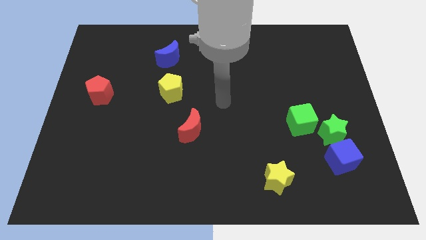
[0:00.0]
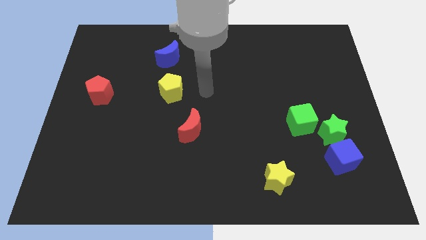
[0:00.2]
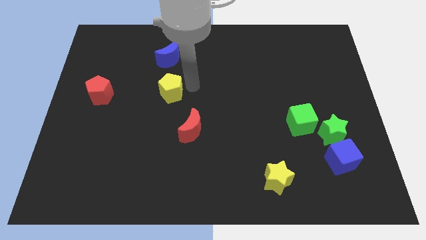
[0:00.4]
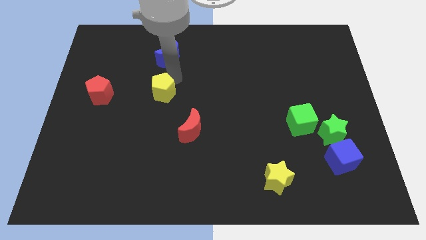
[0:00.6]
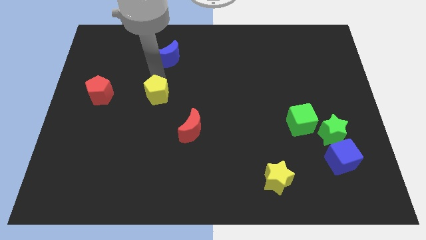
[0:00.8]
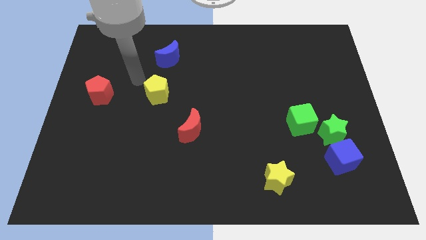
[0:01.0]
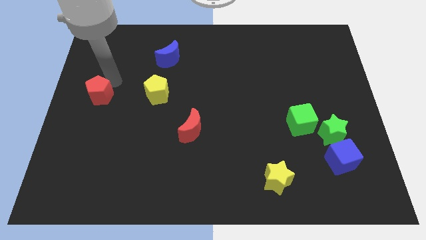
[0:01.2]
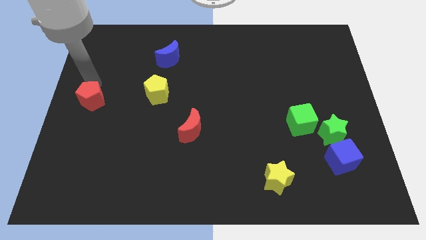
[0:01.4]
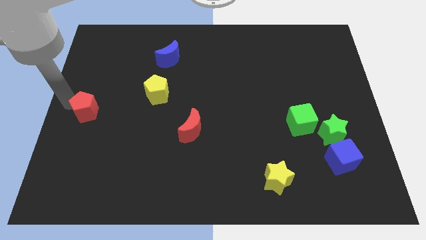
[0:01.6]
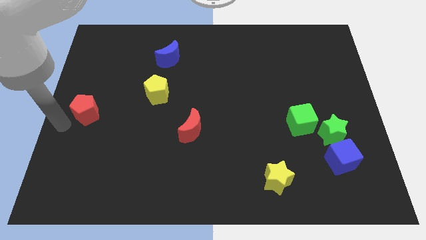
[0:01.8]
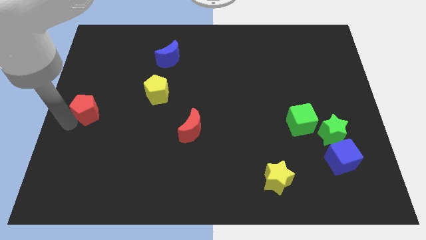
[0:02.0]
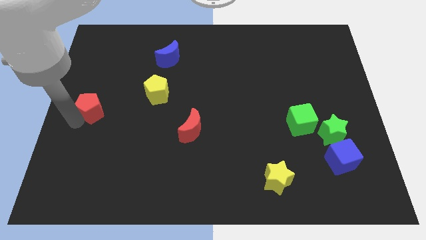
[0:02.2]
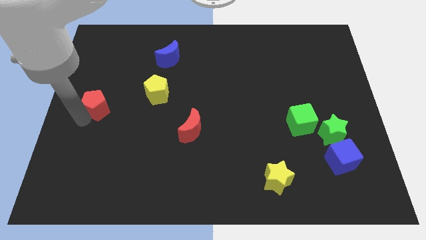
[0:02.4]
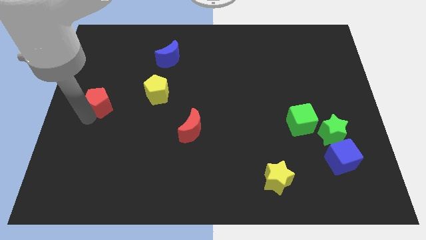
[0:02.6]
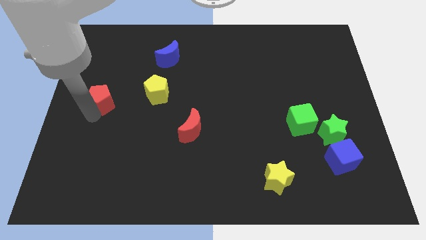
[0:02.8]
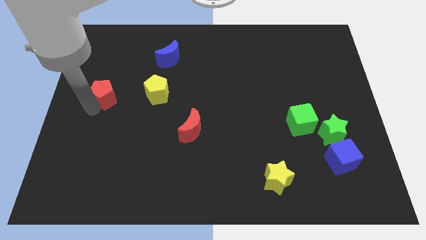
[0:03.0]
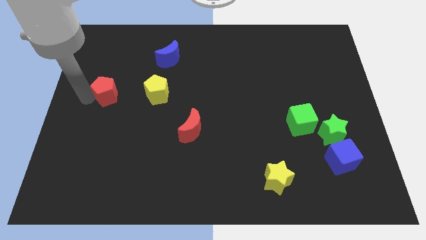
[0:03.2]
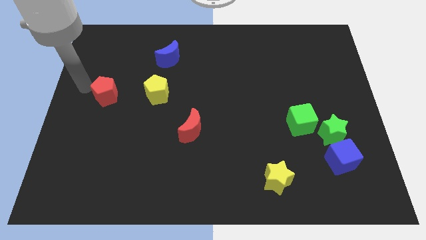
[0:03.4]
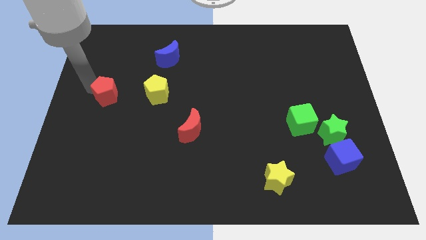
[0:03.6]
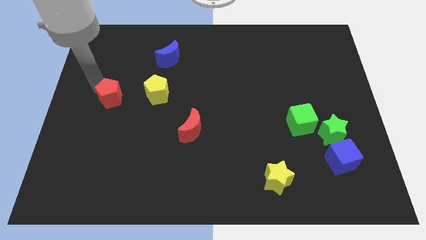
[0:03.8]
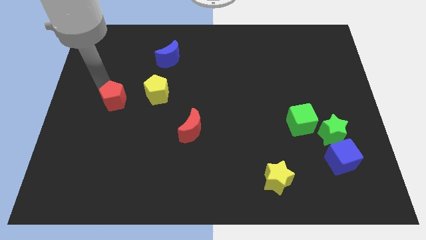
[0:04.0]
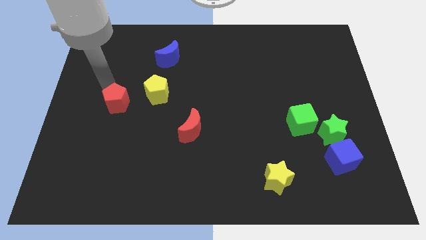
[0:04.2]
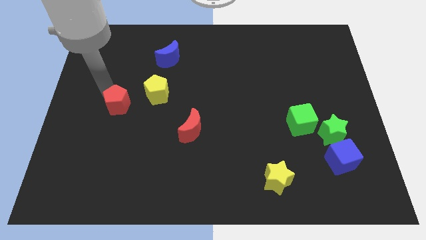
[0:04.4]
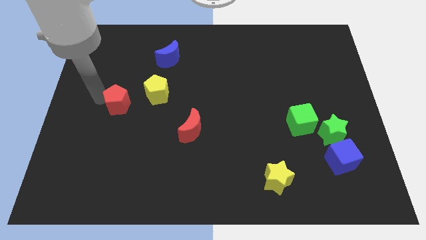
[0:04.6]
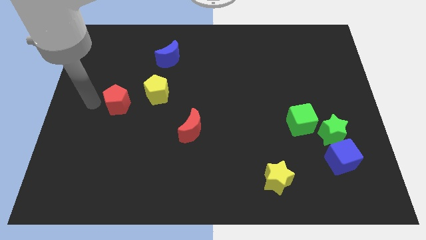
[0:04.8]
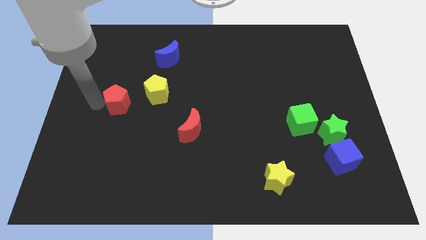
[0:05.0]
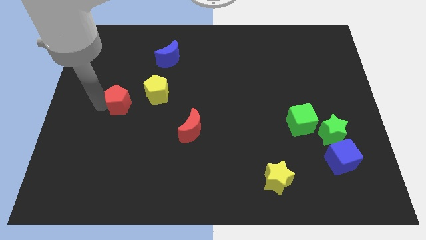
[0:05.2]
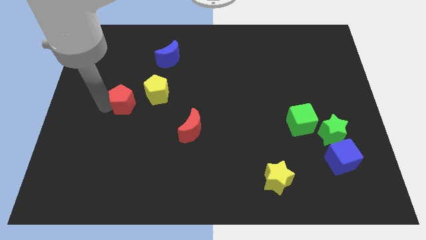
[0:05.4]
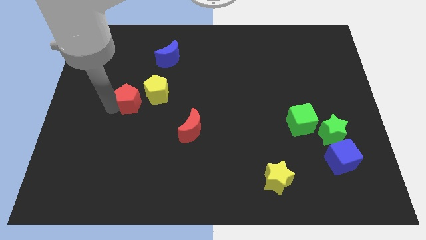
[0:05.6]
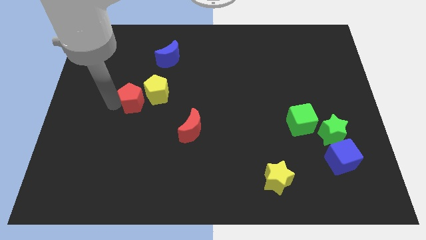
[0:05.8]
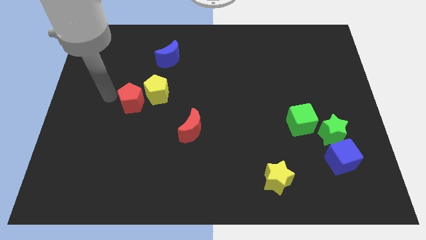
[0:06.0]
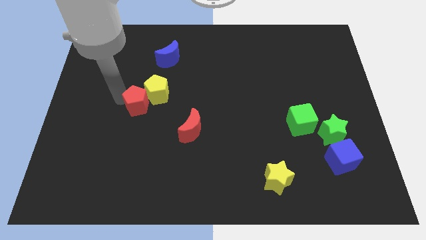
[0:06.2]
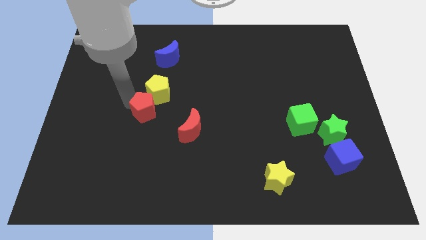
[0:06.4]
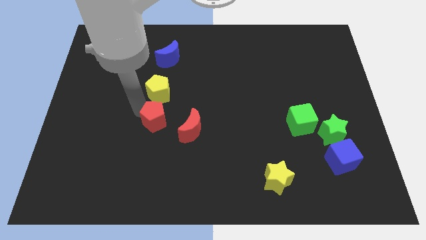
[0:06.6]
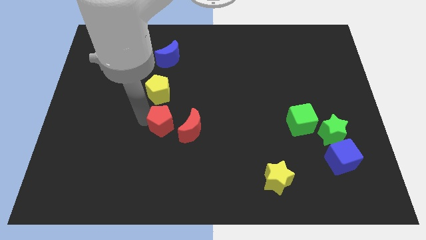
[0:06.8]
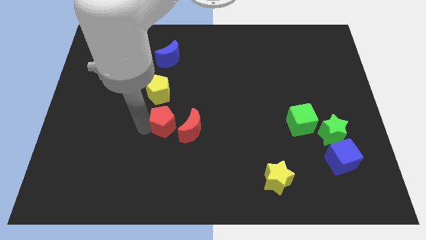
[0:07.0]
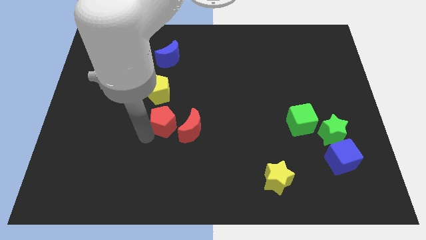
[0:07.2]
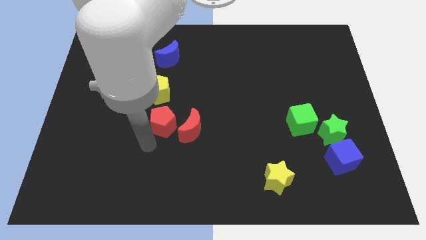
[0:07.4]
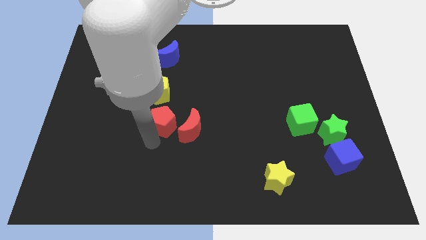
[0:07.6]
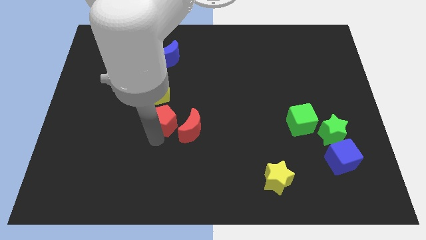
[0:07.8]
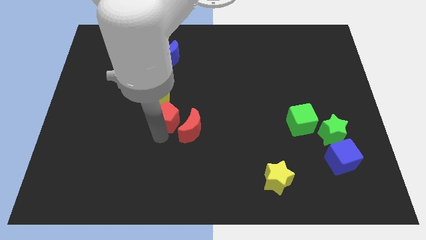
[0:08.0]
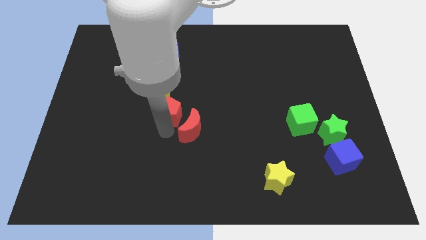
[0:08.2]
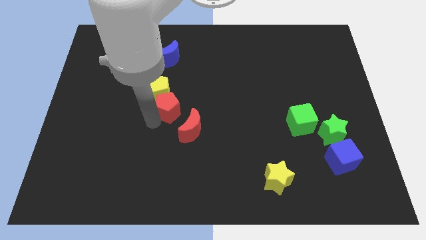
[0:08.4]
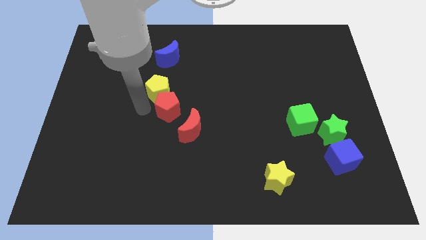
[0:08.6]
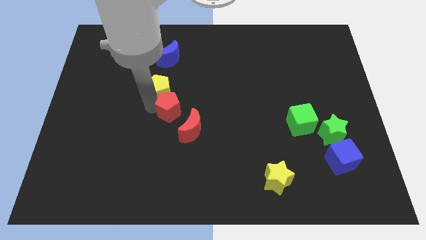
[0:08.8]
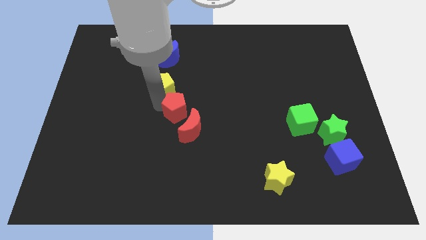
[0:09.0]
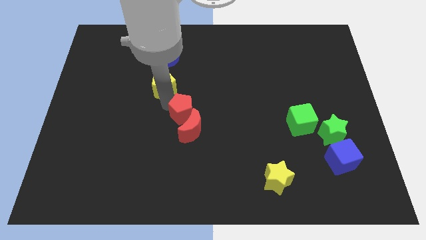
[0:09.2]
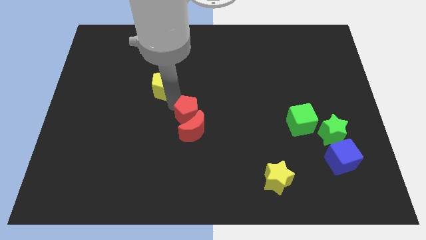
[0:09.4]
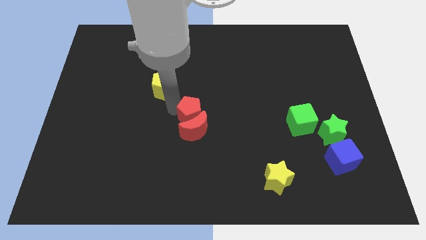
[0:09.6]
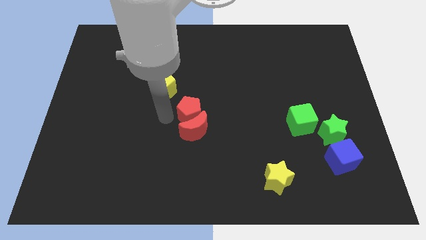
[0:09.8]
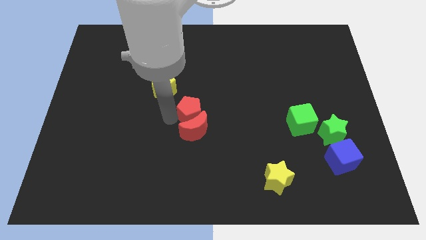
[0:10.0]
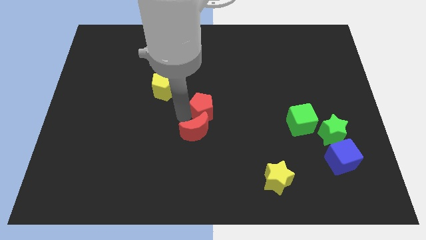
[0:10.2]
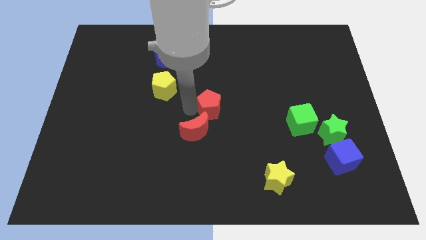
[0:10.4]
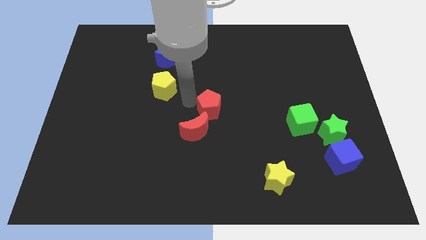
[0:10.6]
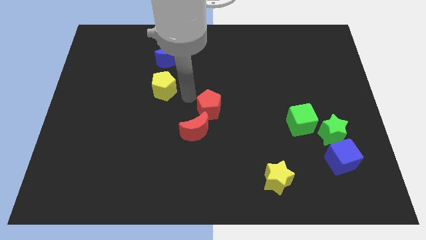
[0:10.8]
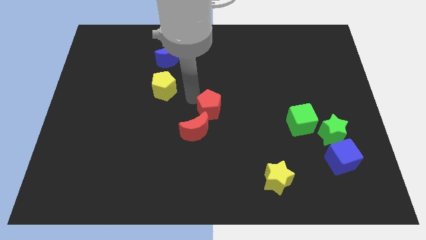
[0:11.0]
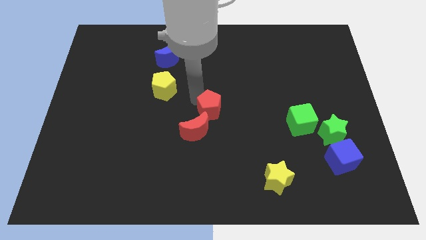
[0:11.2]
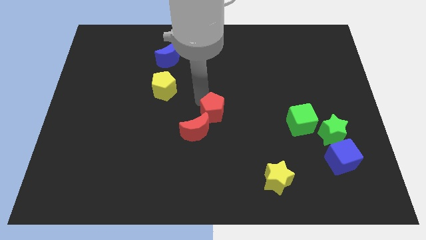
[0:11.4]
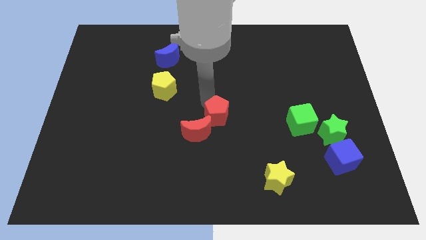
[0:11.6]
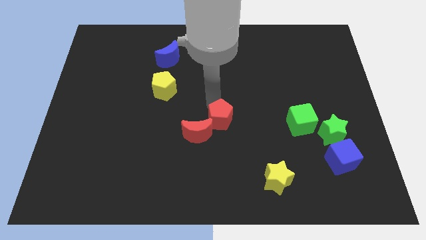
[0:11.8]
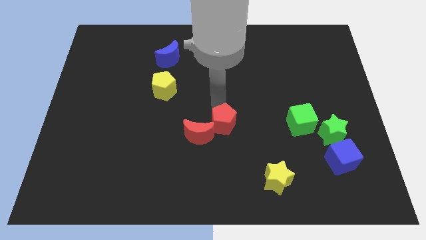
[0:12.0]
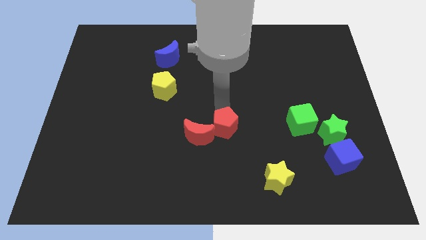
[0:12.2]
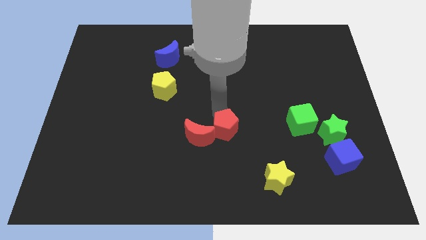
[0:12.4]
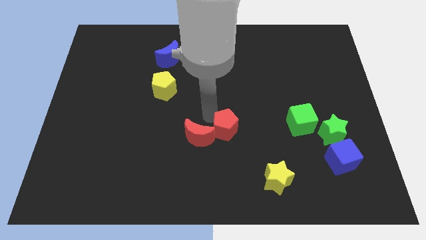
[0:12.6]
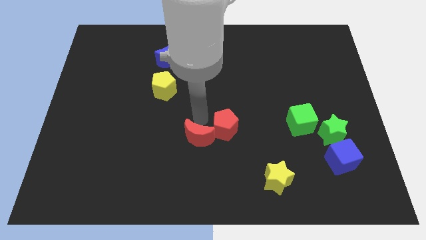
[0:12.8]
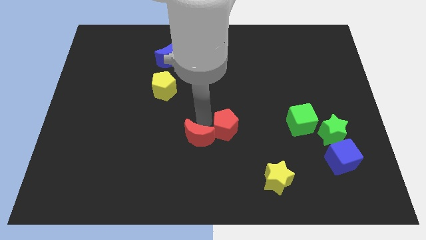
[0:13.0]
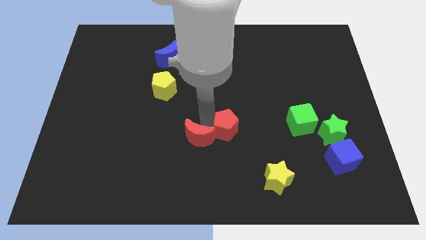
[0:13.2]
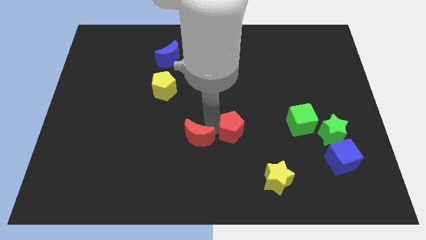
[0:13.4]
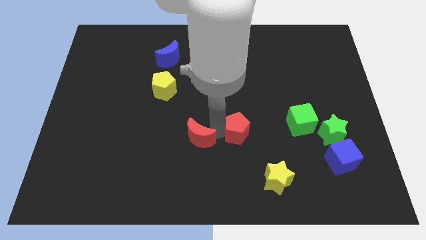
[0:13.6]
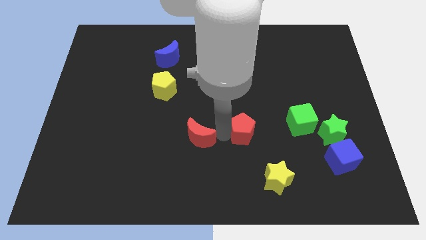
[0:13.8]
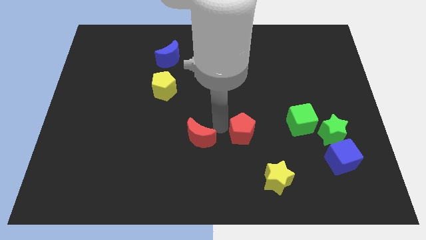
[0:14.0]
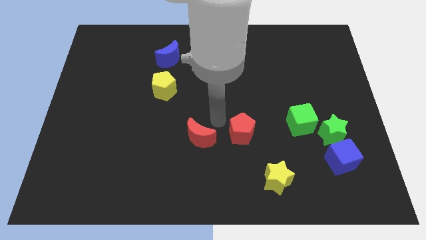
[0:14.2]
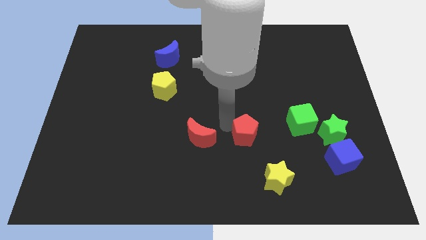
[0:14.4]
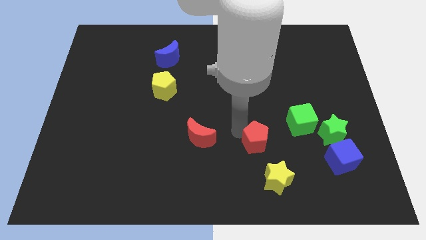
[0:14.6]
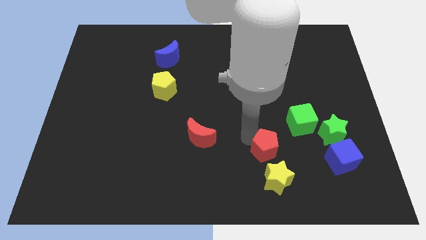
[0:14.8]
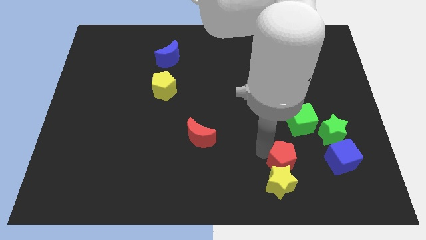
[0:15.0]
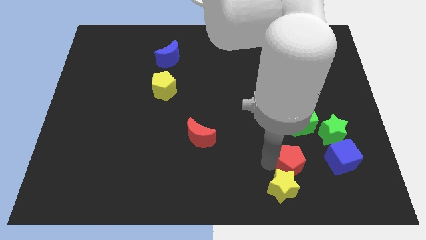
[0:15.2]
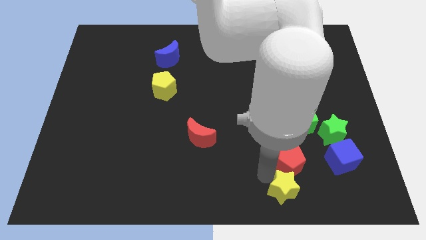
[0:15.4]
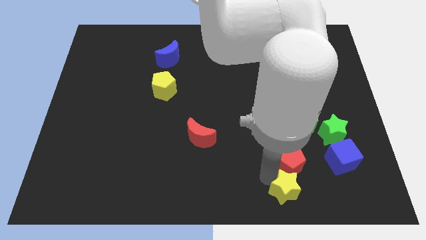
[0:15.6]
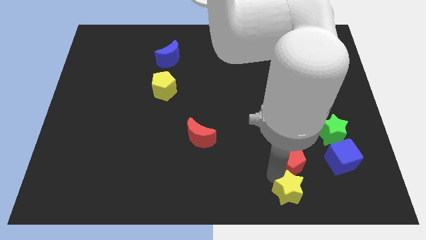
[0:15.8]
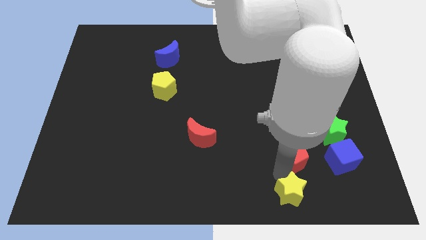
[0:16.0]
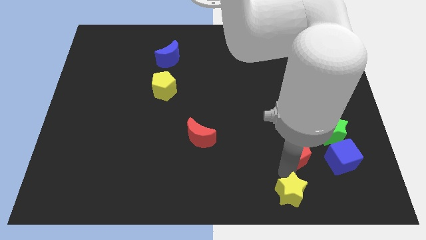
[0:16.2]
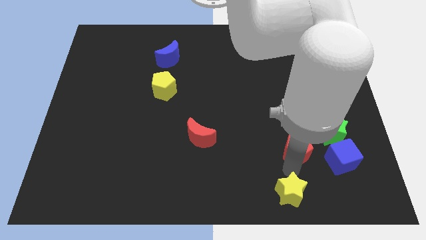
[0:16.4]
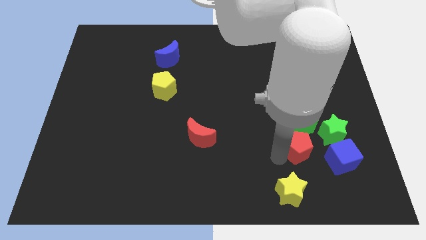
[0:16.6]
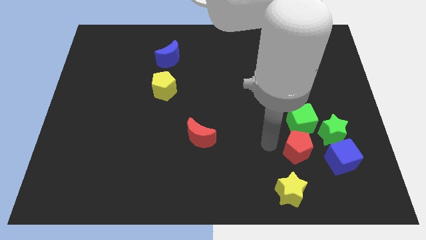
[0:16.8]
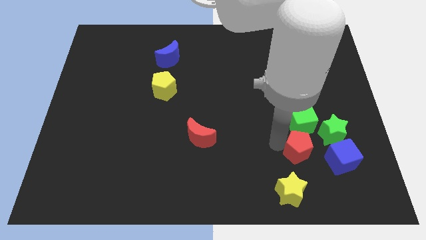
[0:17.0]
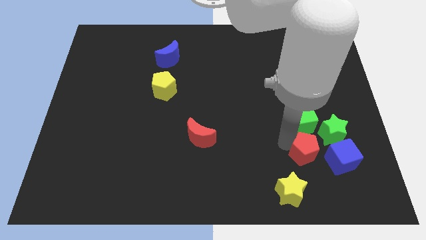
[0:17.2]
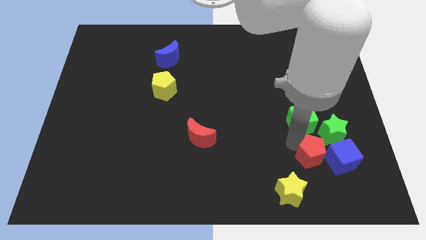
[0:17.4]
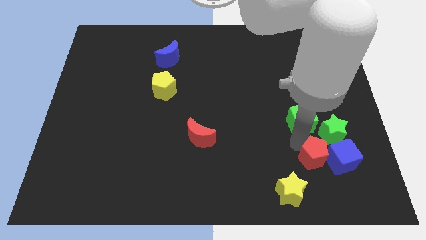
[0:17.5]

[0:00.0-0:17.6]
put the red pentagon towards the blue cube
